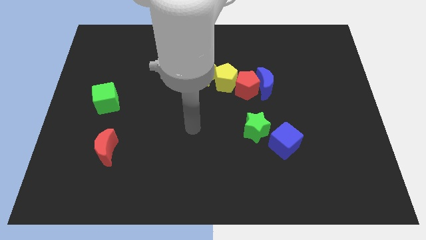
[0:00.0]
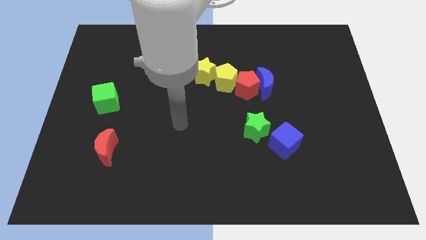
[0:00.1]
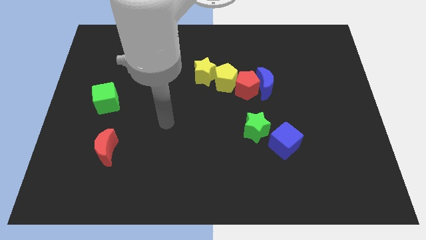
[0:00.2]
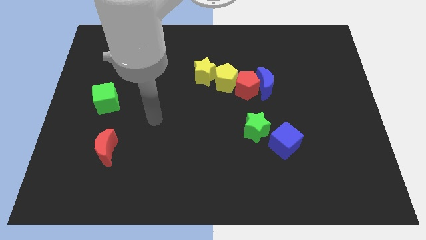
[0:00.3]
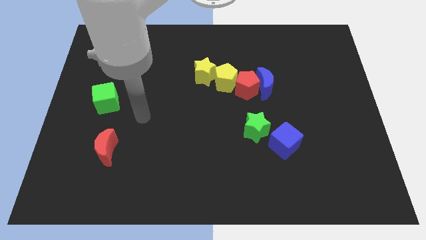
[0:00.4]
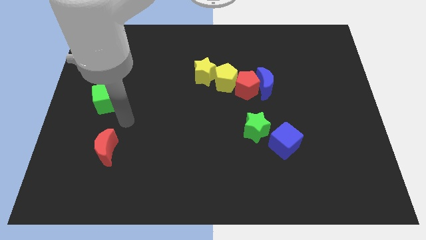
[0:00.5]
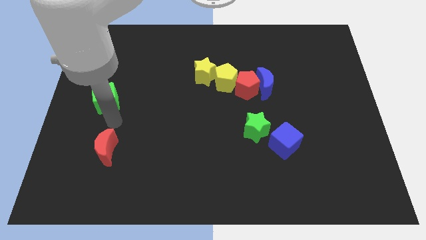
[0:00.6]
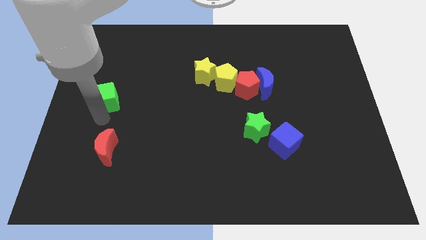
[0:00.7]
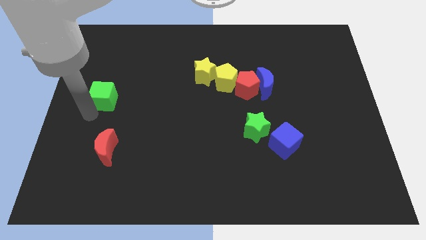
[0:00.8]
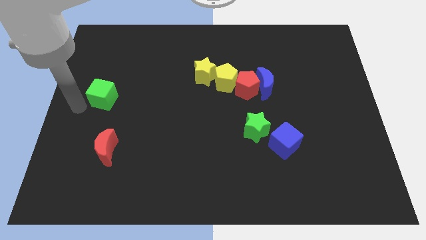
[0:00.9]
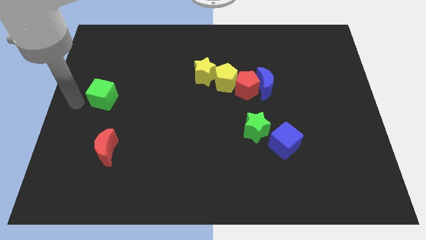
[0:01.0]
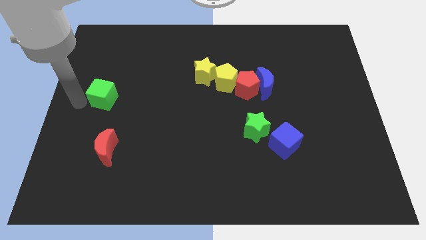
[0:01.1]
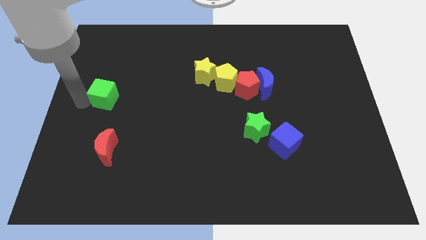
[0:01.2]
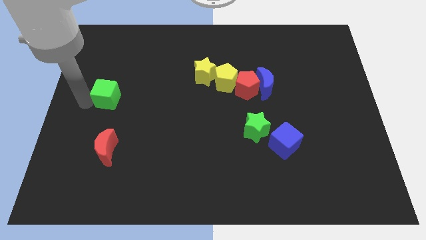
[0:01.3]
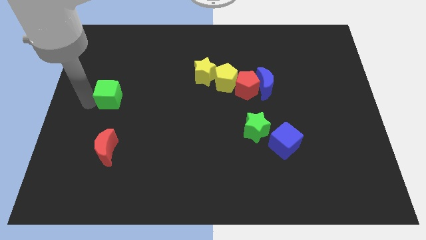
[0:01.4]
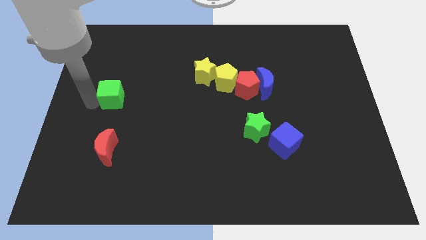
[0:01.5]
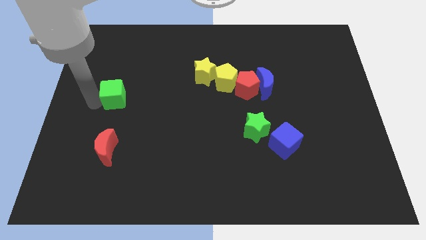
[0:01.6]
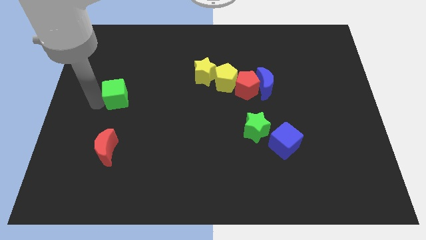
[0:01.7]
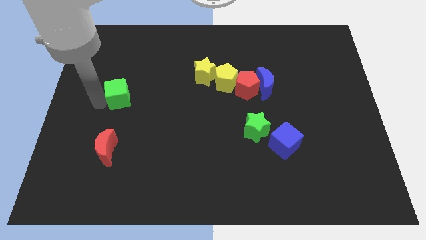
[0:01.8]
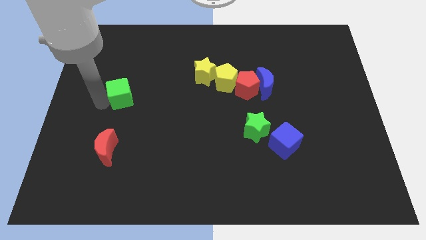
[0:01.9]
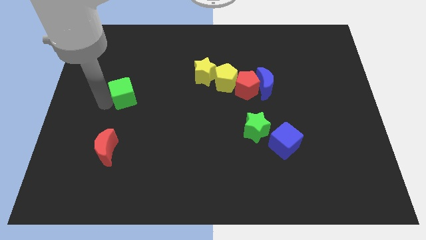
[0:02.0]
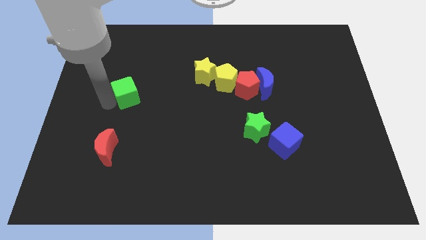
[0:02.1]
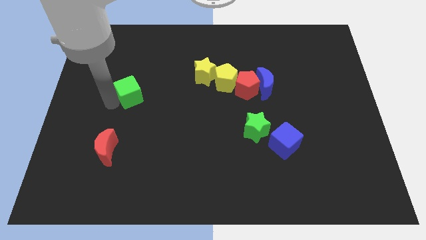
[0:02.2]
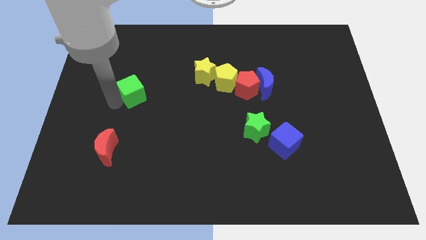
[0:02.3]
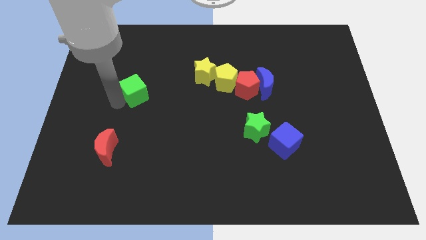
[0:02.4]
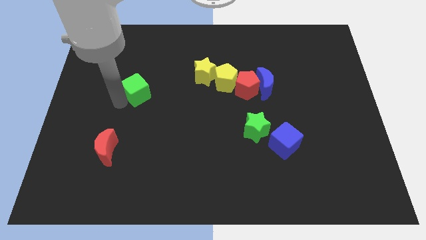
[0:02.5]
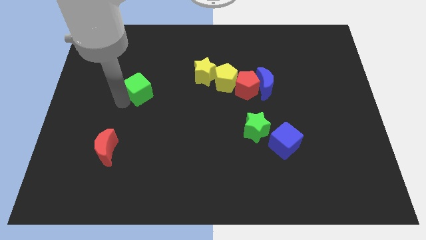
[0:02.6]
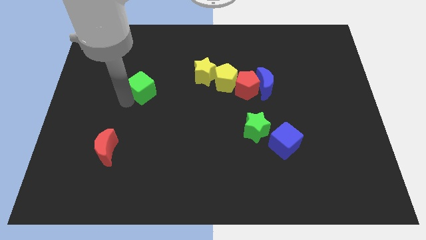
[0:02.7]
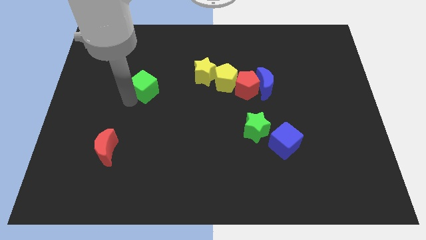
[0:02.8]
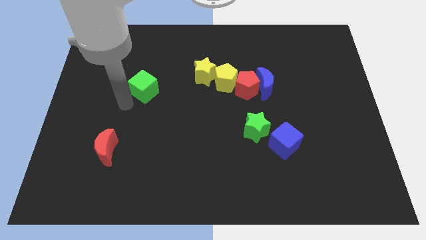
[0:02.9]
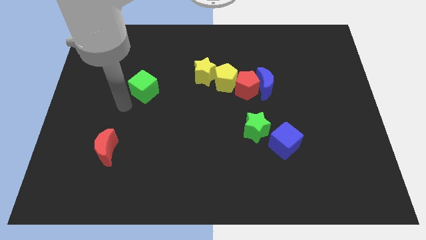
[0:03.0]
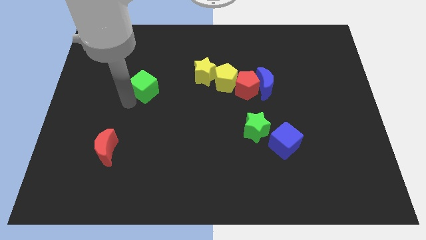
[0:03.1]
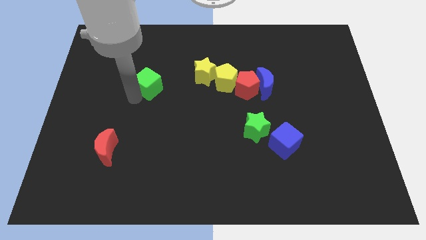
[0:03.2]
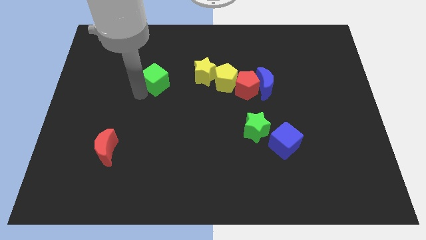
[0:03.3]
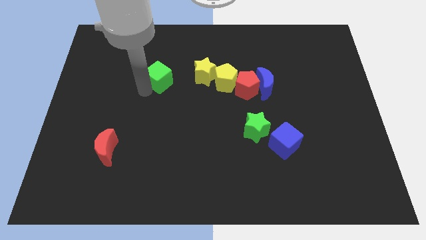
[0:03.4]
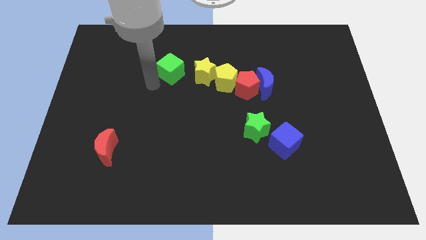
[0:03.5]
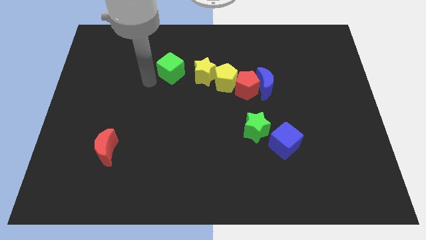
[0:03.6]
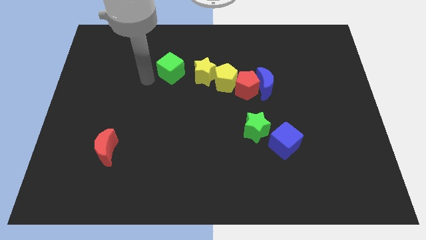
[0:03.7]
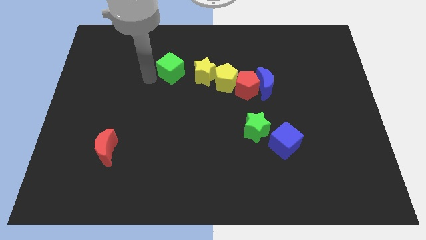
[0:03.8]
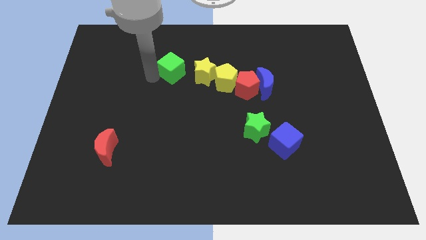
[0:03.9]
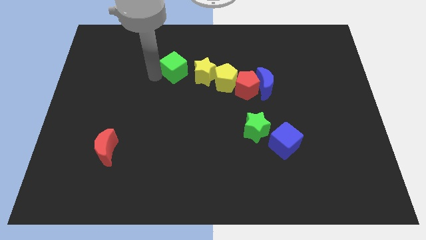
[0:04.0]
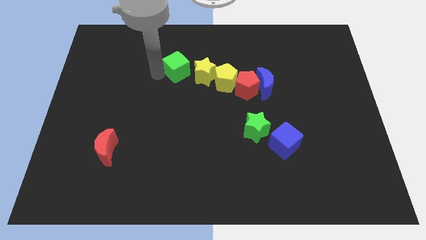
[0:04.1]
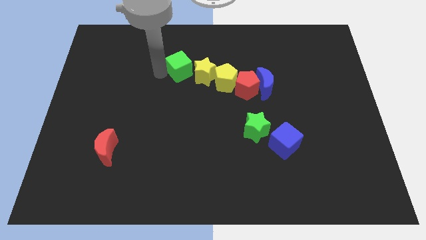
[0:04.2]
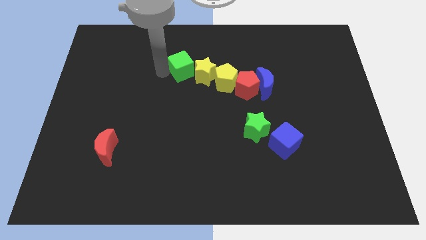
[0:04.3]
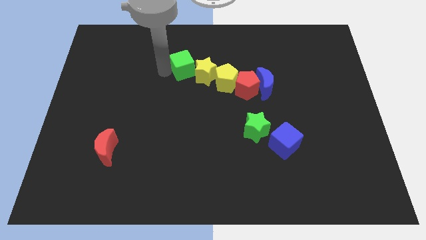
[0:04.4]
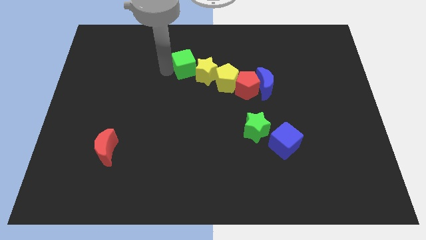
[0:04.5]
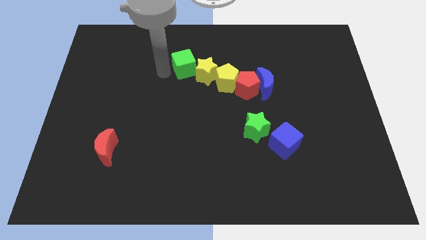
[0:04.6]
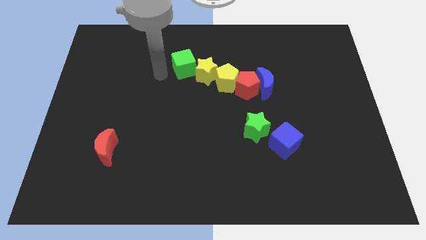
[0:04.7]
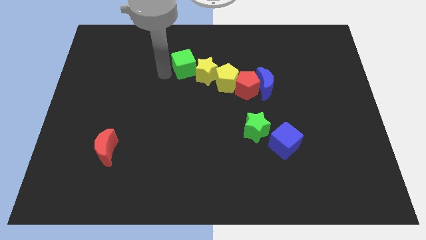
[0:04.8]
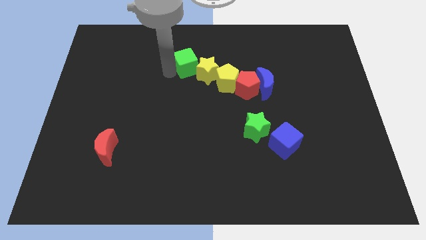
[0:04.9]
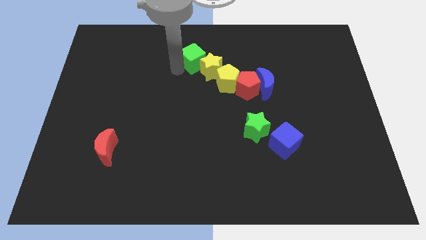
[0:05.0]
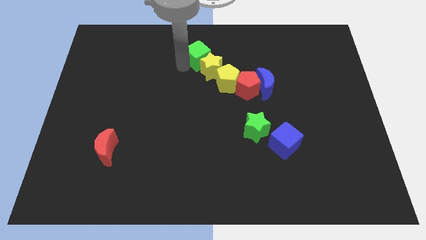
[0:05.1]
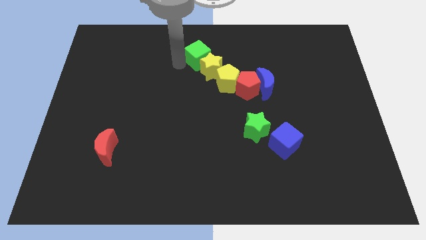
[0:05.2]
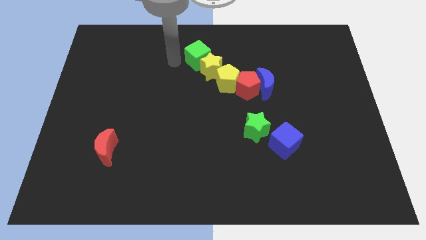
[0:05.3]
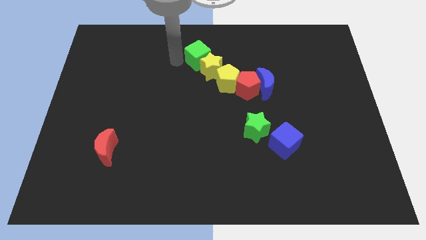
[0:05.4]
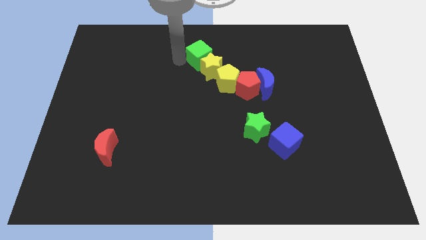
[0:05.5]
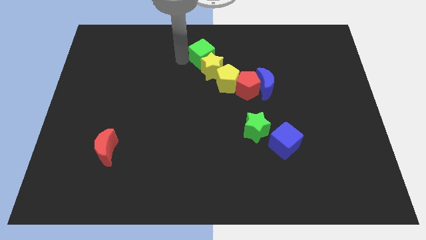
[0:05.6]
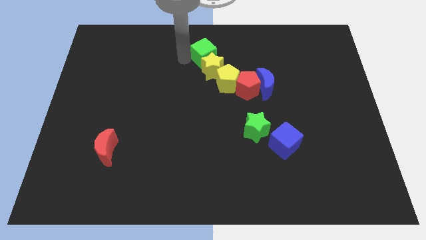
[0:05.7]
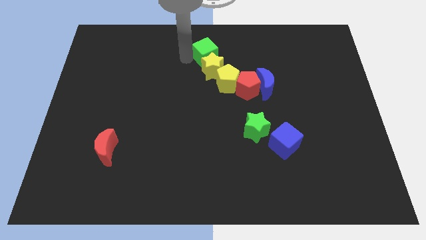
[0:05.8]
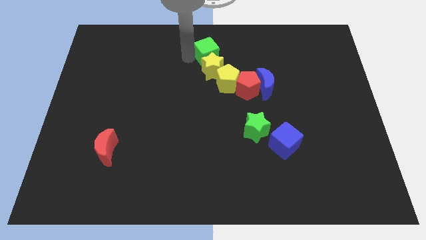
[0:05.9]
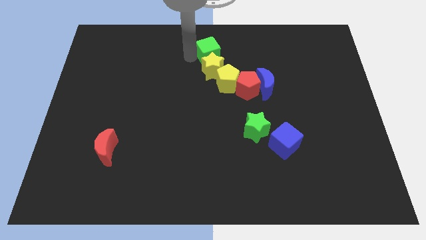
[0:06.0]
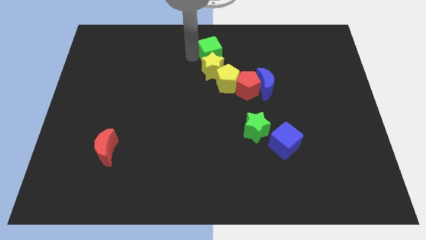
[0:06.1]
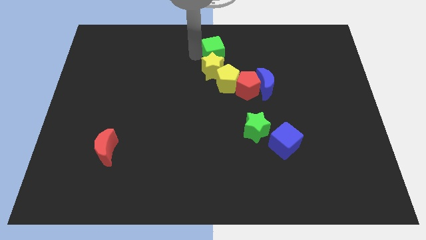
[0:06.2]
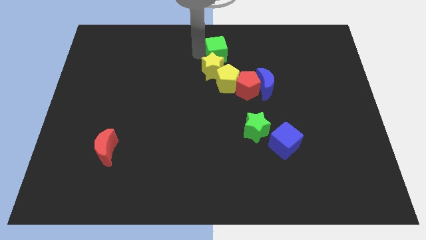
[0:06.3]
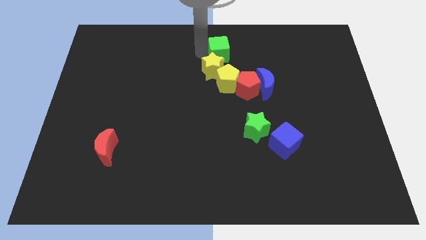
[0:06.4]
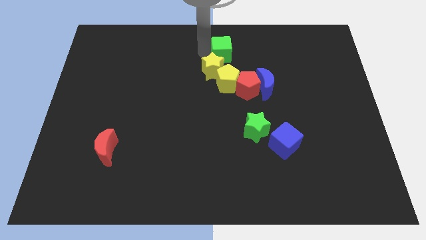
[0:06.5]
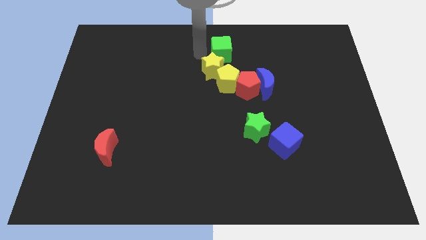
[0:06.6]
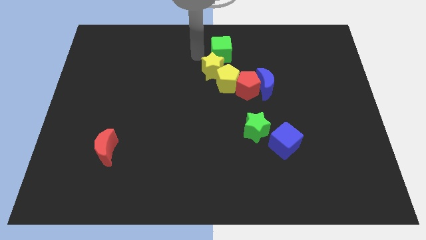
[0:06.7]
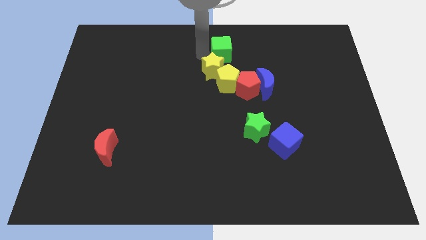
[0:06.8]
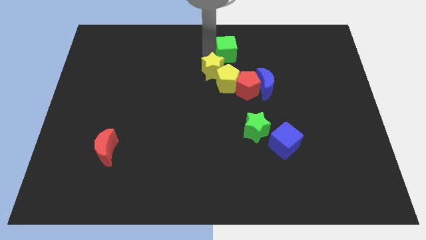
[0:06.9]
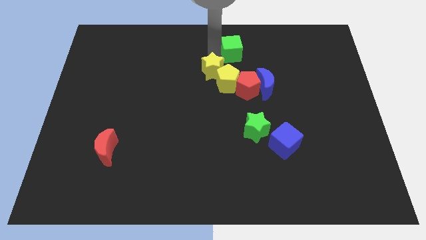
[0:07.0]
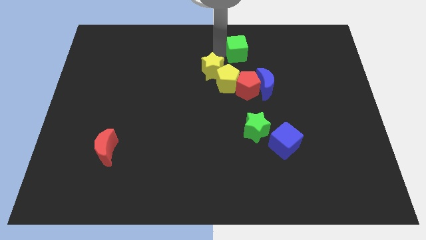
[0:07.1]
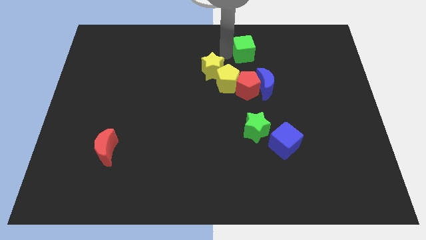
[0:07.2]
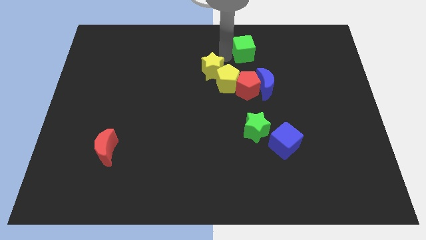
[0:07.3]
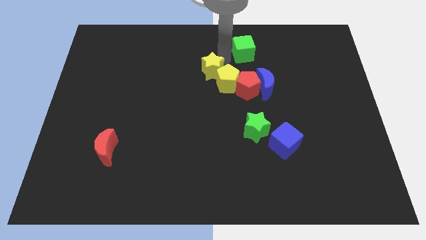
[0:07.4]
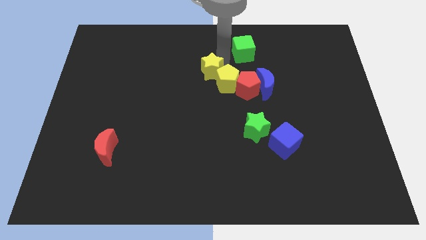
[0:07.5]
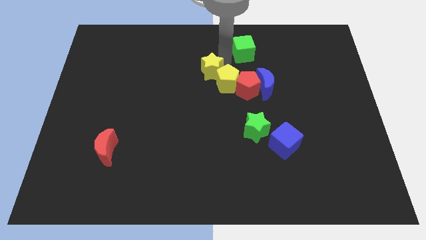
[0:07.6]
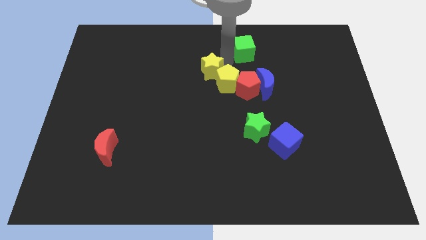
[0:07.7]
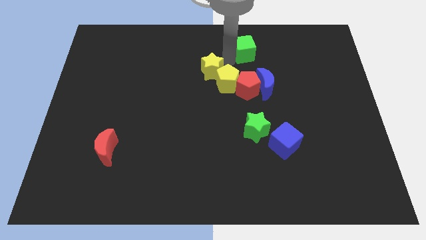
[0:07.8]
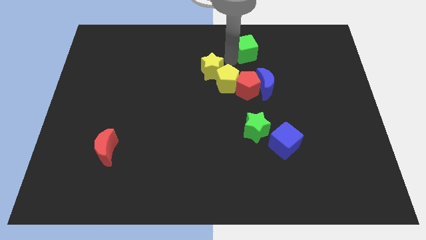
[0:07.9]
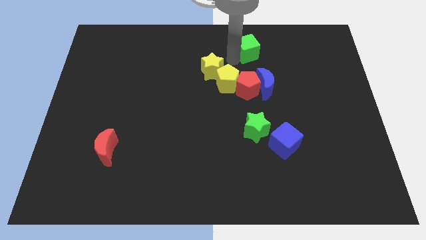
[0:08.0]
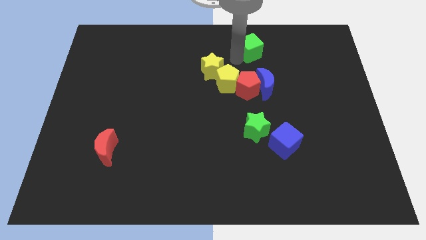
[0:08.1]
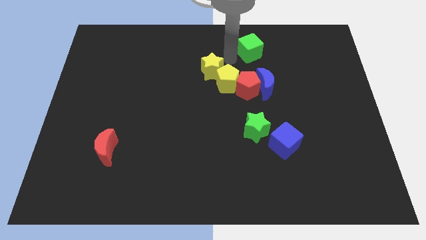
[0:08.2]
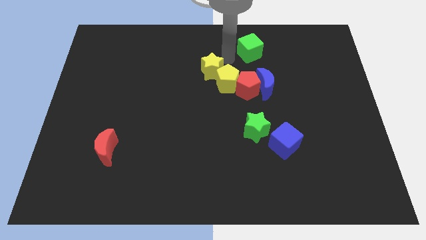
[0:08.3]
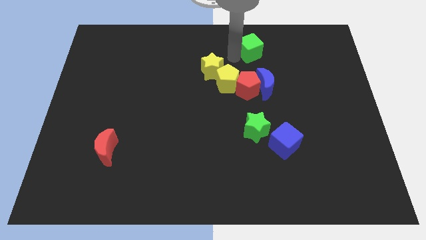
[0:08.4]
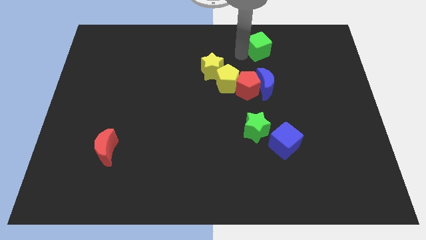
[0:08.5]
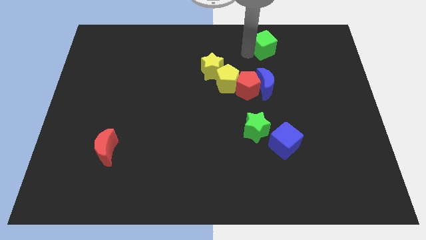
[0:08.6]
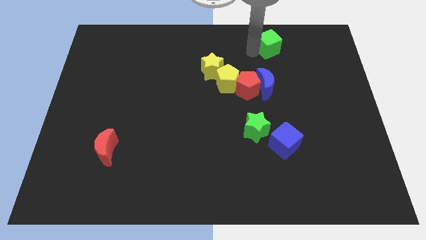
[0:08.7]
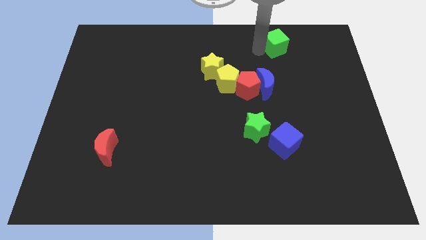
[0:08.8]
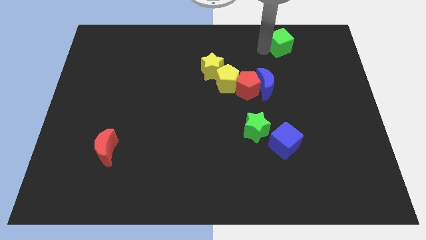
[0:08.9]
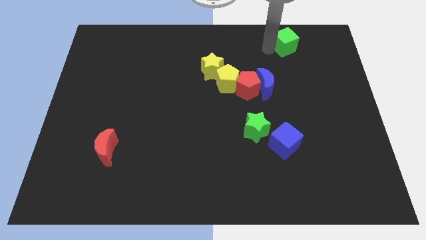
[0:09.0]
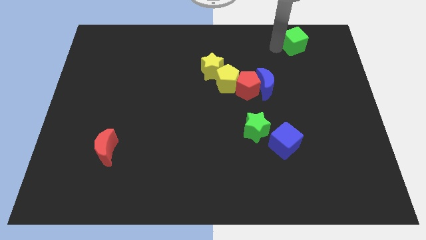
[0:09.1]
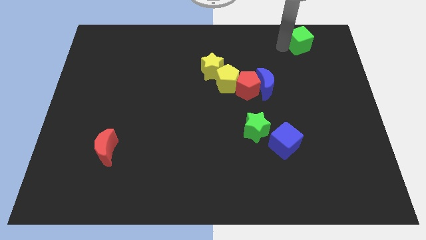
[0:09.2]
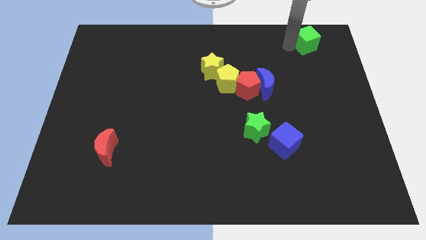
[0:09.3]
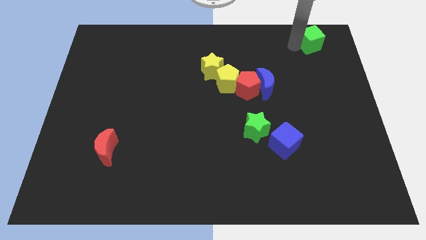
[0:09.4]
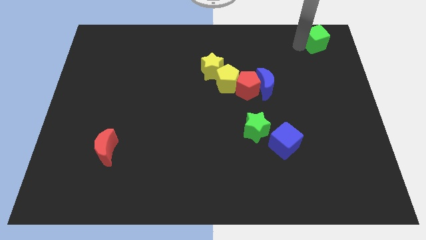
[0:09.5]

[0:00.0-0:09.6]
push the green cube to the top right
